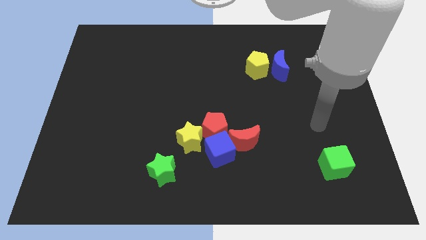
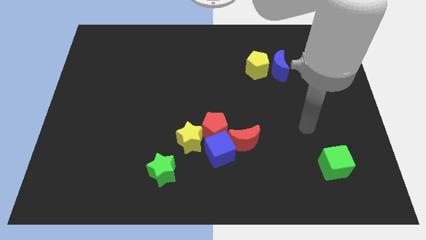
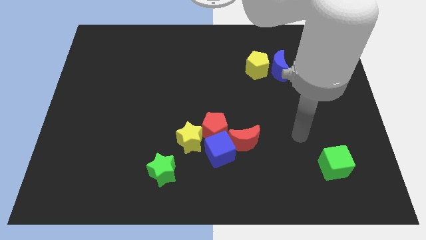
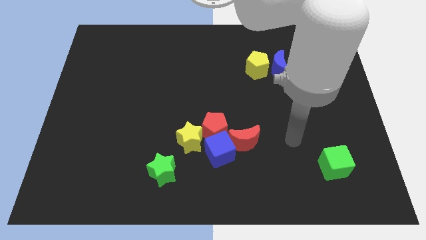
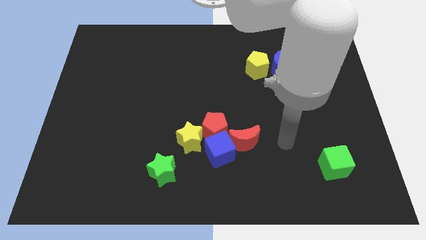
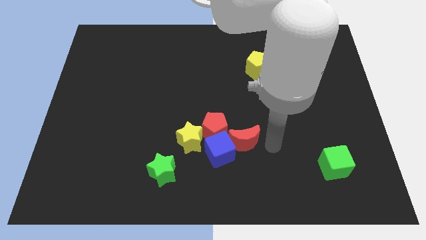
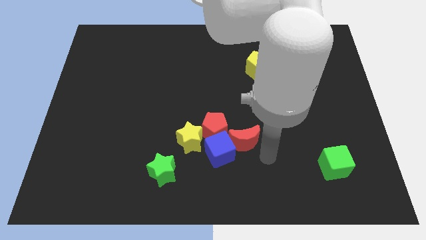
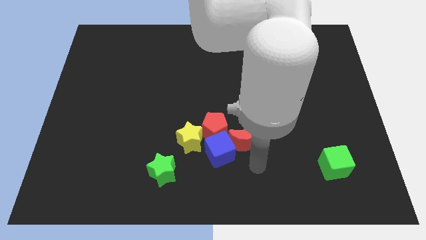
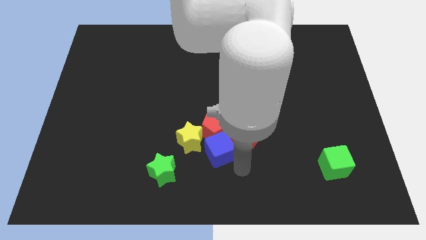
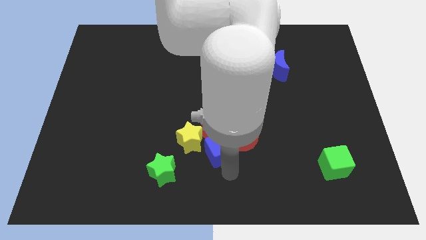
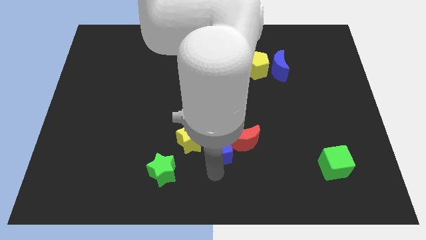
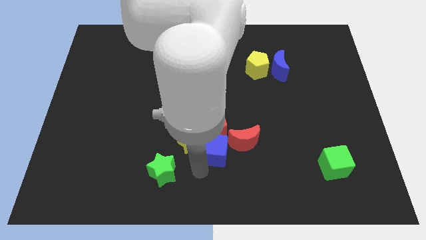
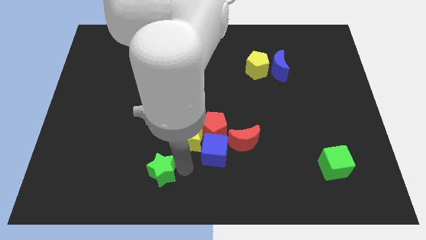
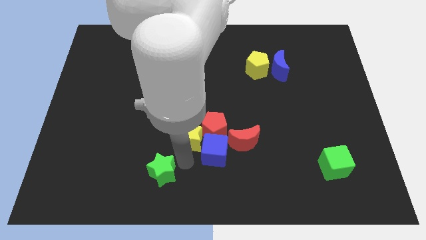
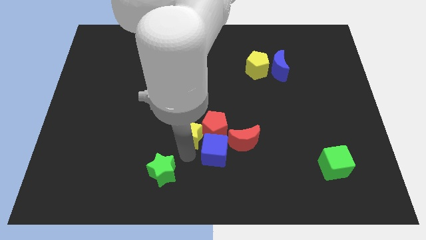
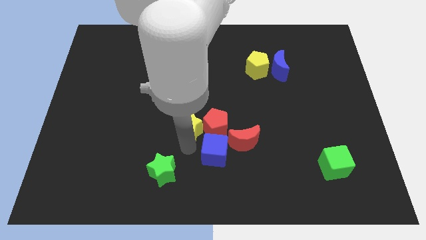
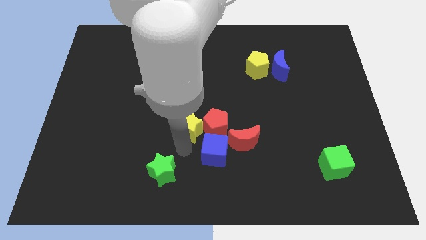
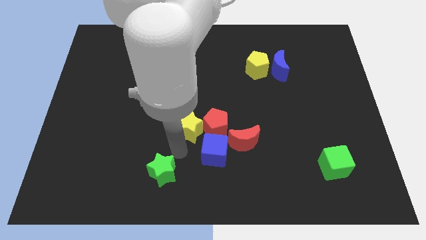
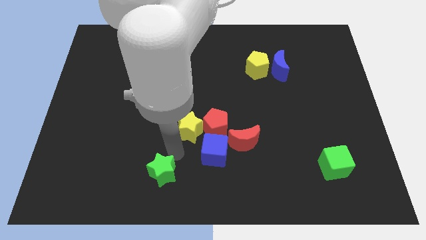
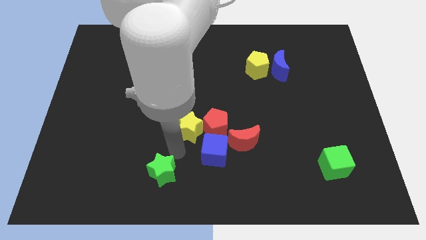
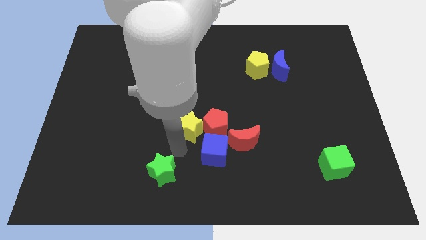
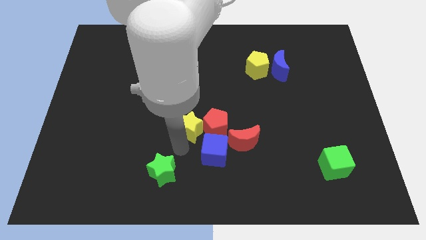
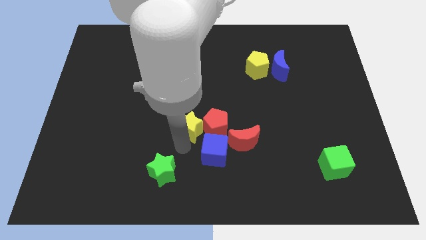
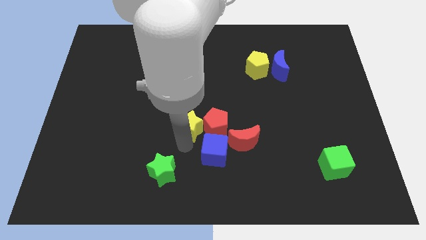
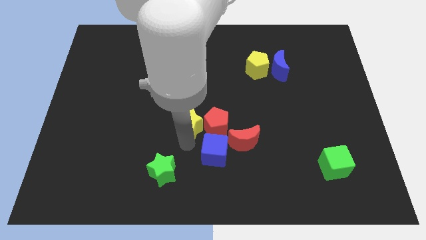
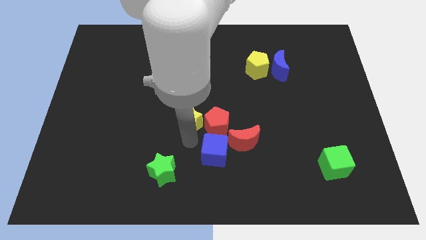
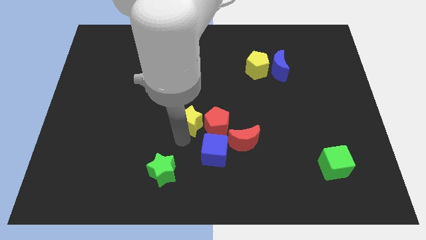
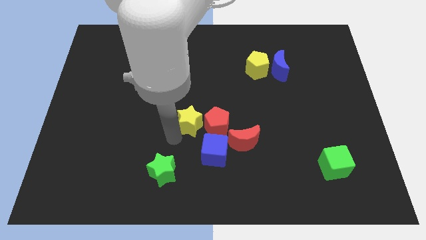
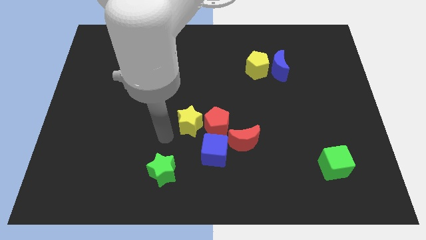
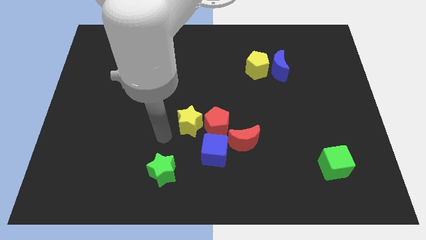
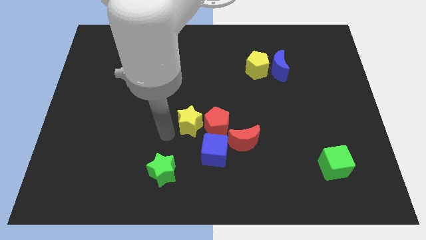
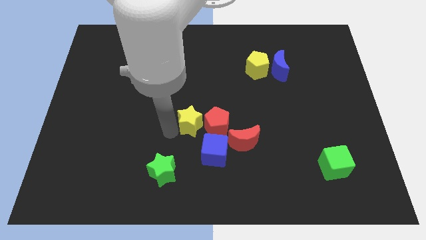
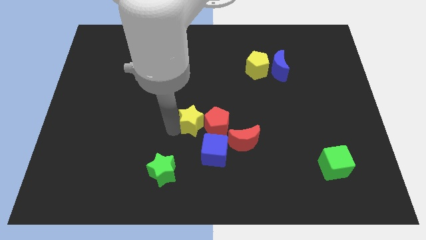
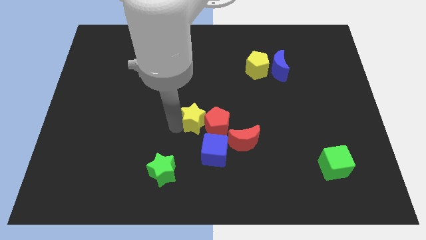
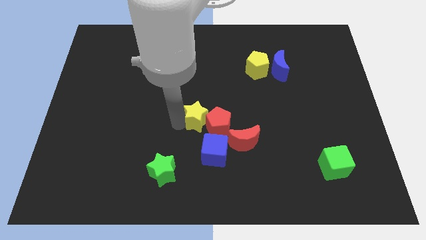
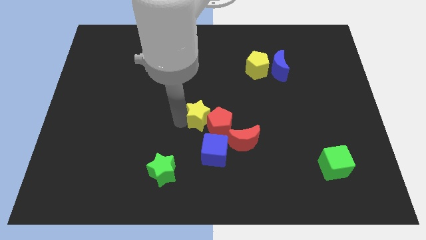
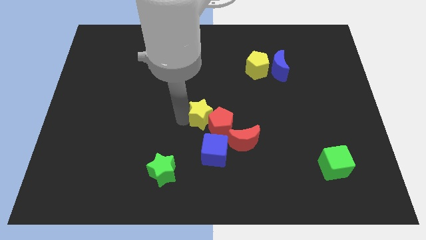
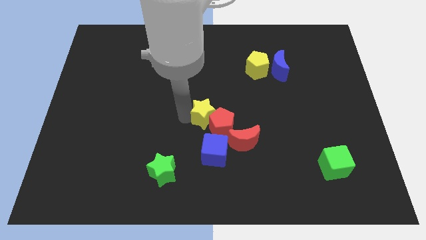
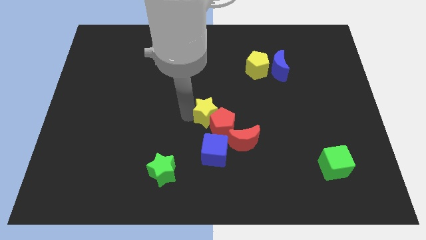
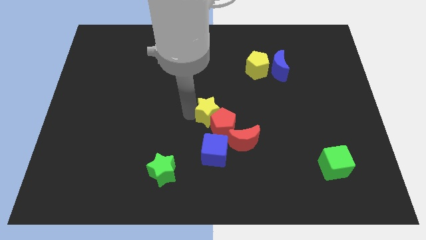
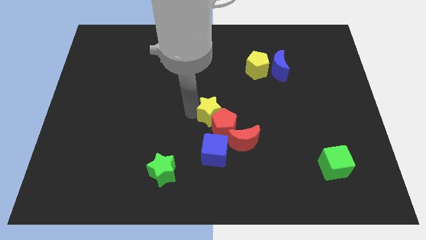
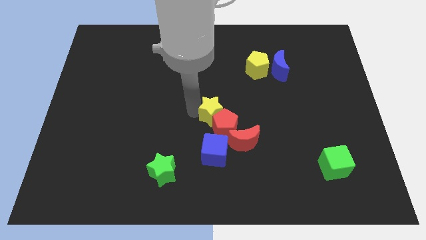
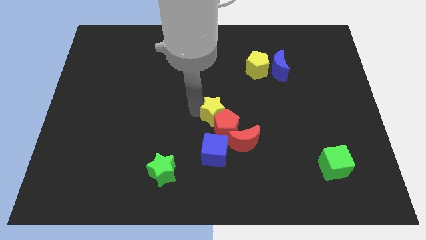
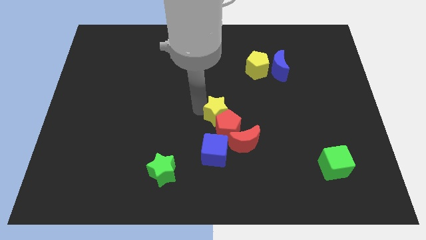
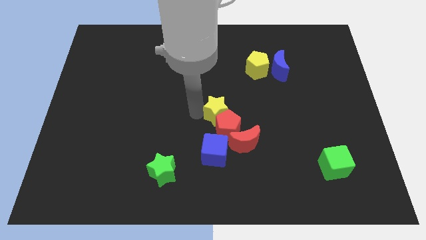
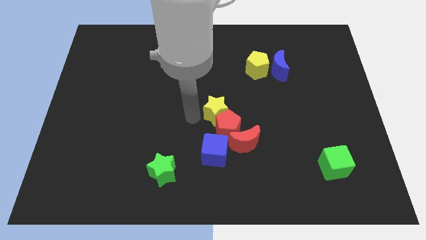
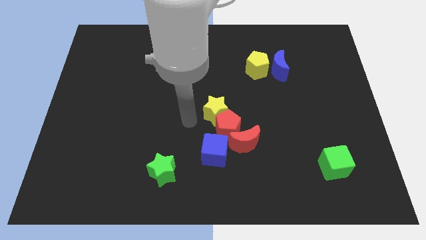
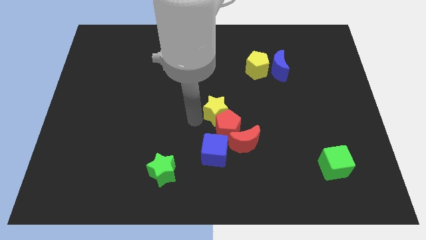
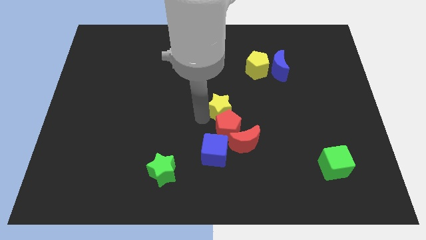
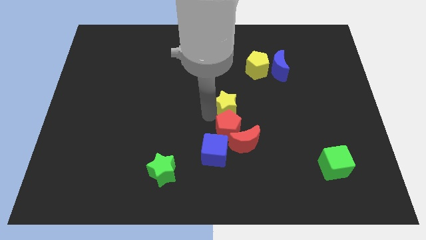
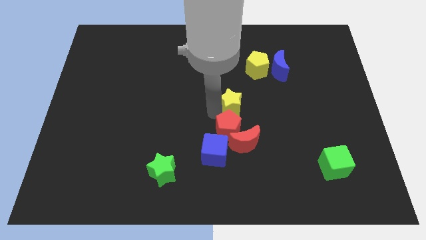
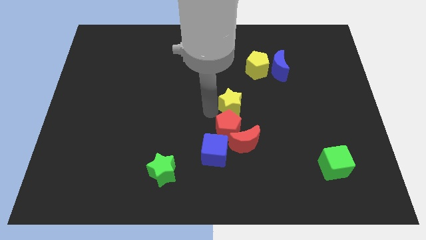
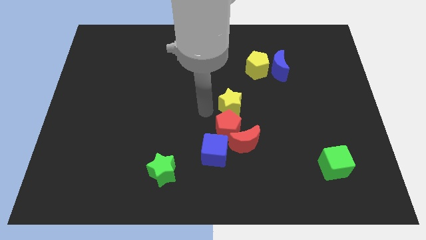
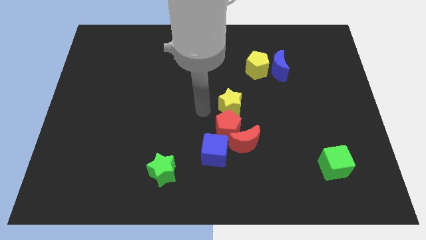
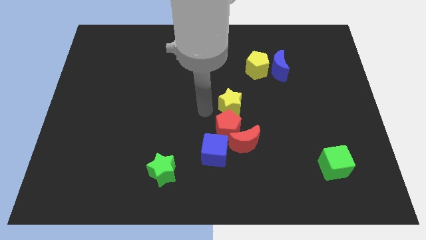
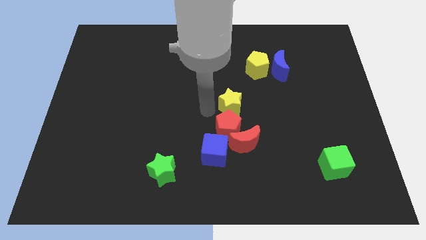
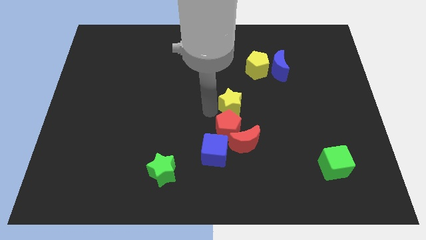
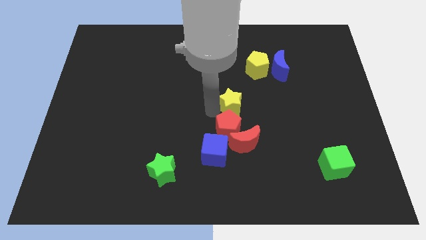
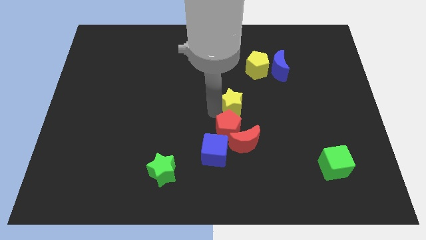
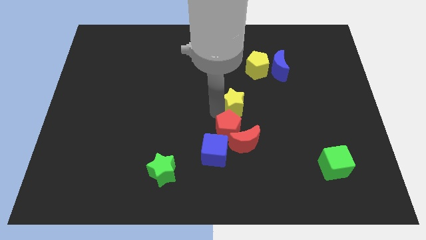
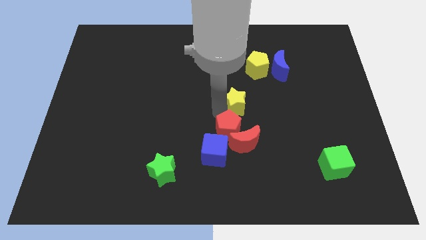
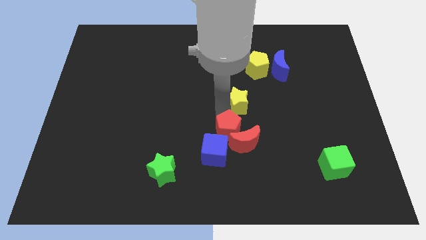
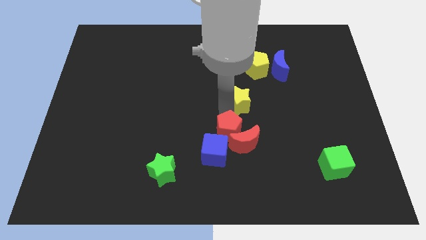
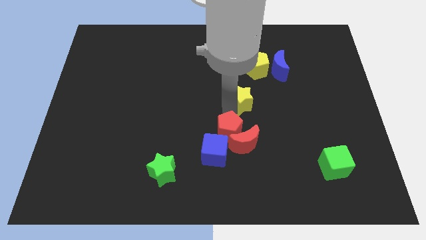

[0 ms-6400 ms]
slide the yellow star to the bottom side of the yellow pentagon

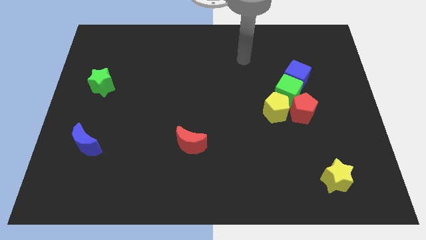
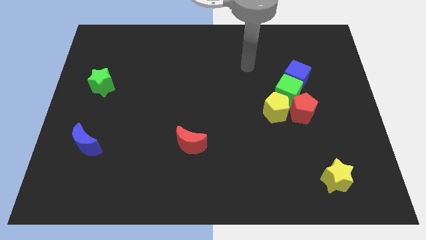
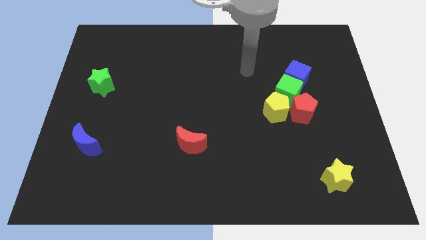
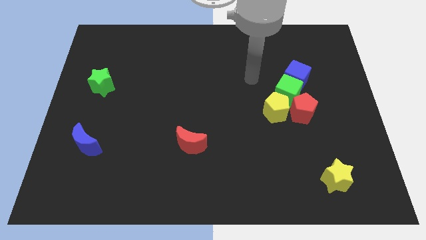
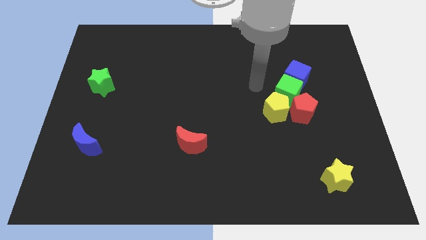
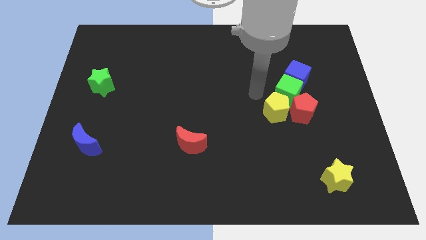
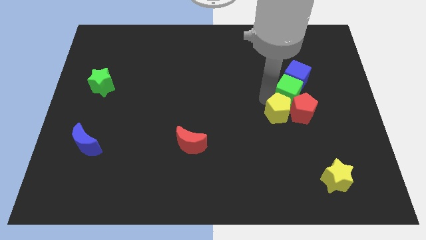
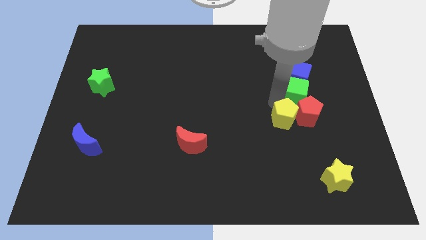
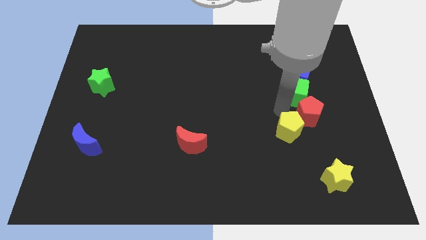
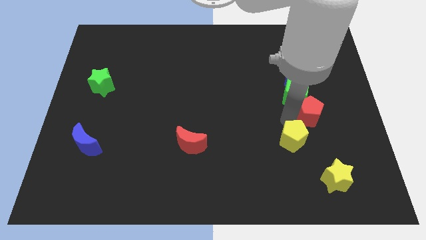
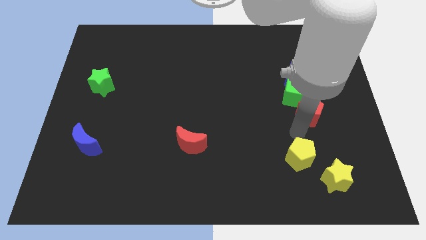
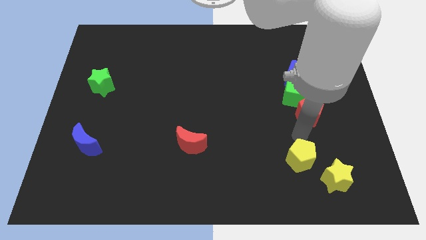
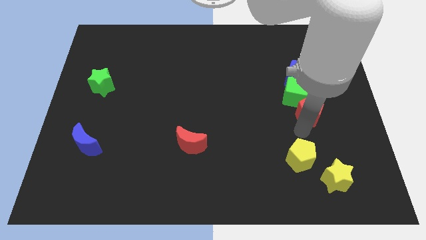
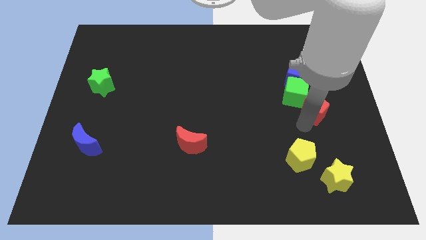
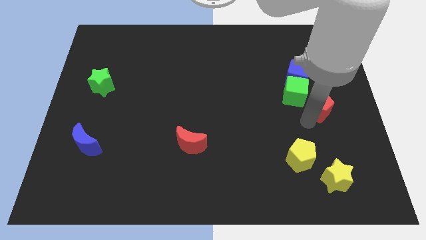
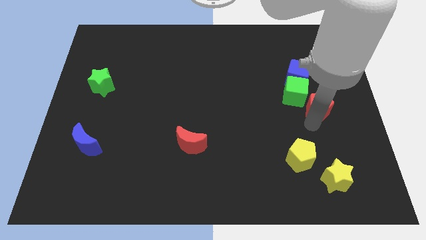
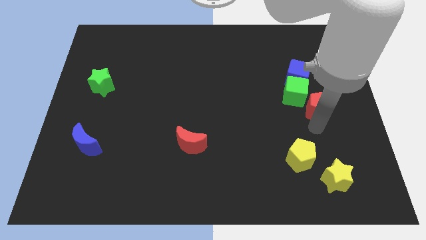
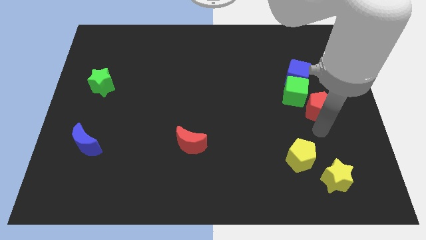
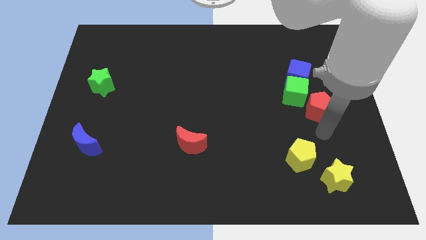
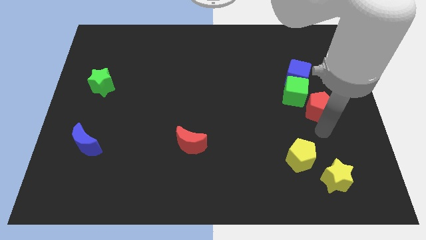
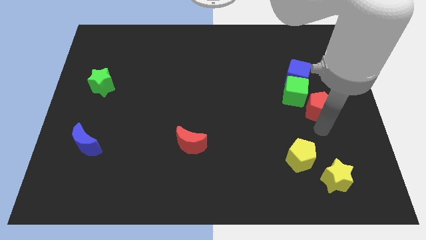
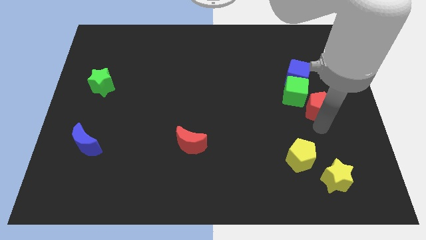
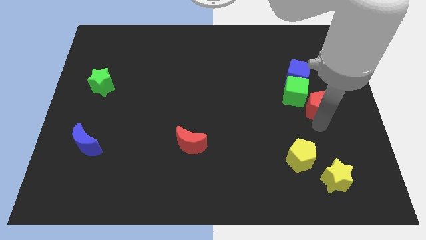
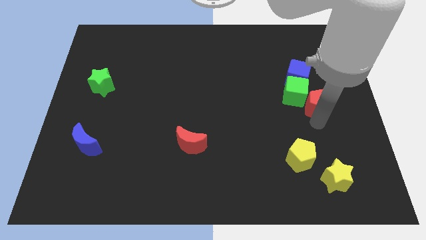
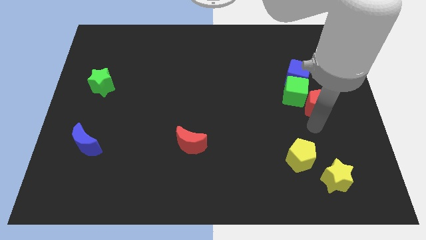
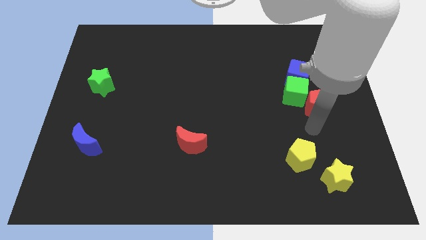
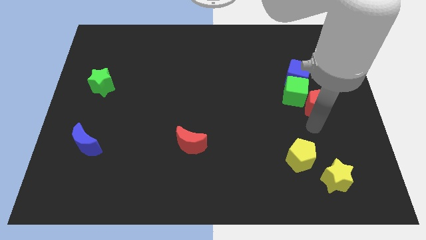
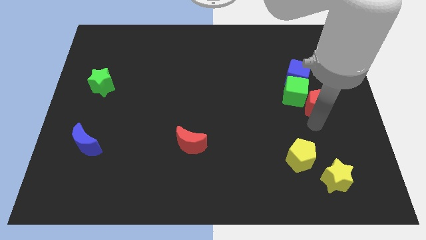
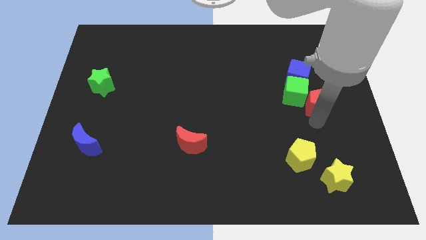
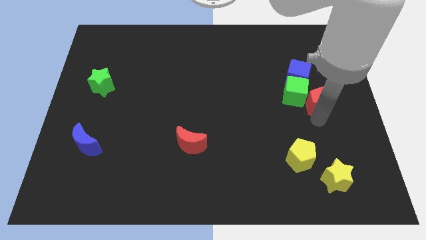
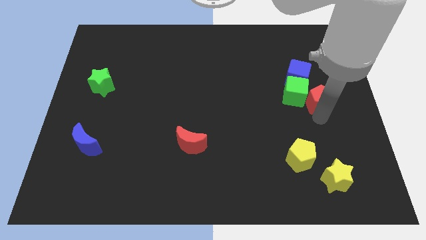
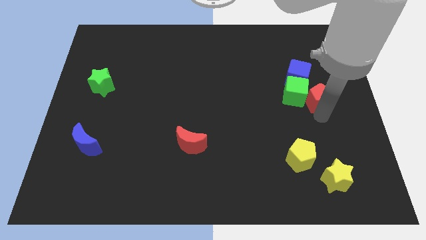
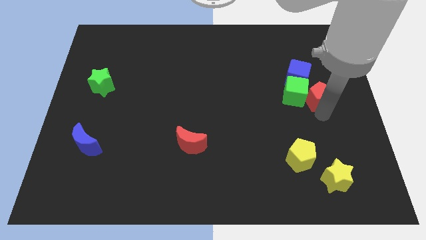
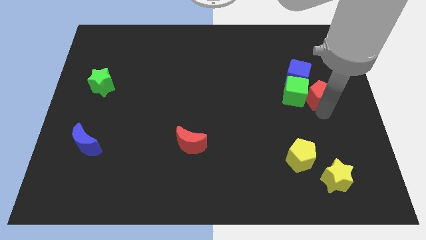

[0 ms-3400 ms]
slide the red pentagon to the top right of the green cube
